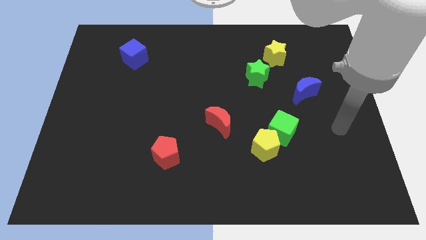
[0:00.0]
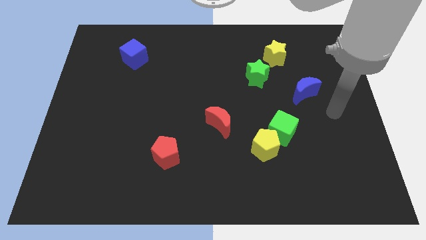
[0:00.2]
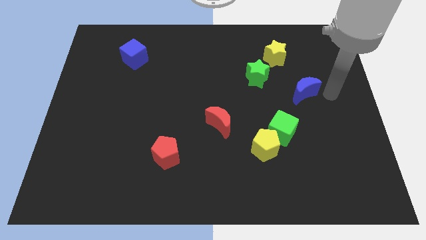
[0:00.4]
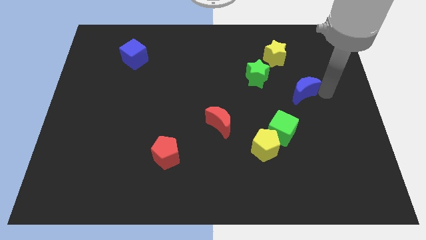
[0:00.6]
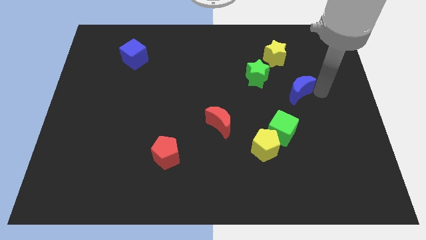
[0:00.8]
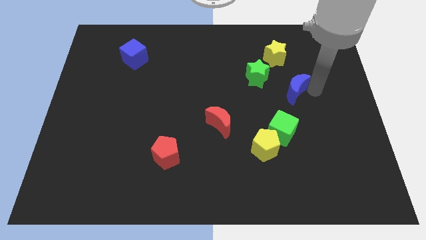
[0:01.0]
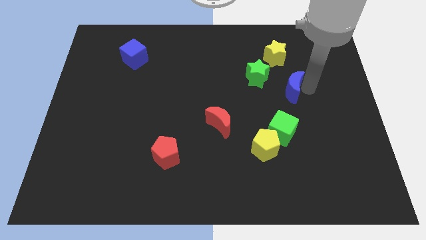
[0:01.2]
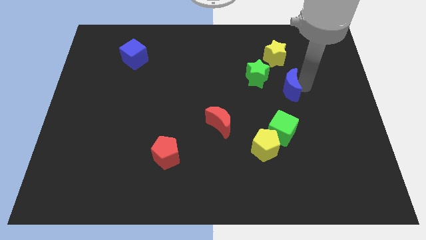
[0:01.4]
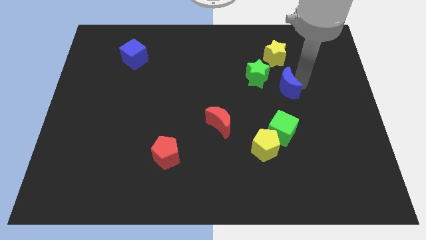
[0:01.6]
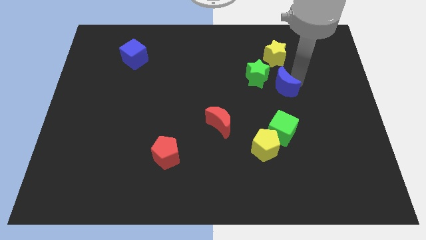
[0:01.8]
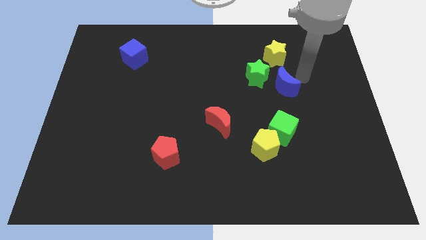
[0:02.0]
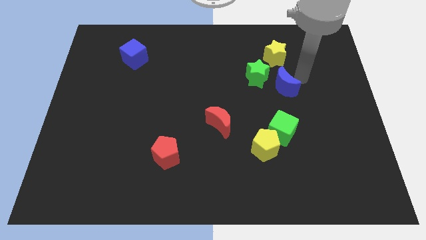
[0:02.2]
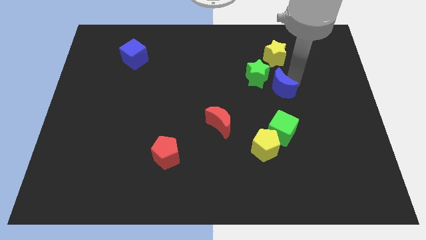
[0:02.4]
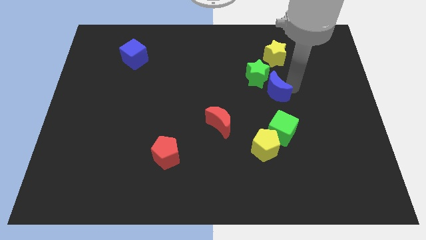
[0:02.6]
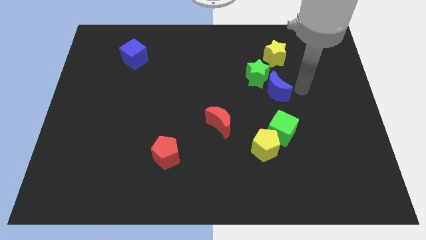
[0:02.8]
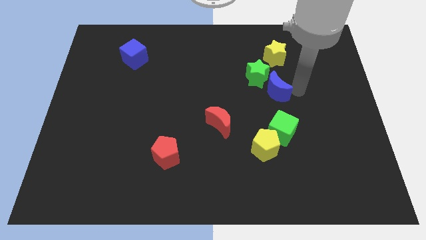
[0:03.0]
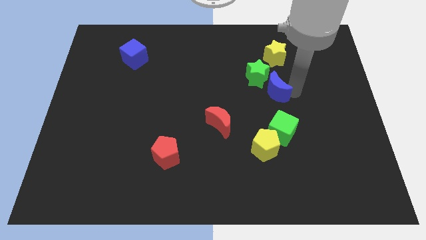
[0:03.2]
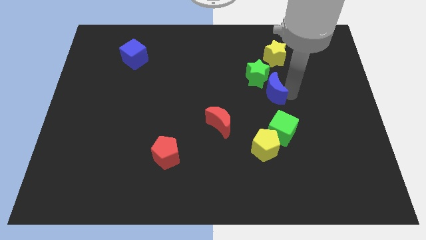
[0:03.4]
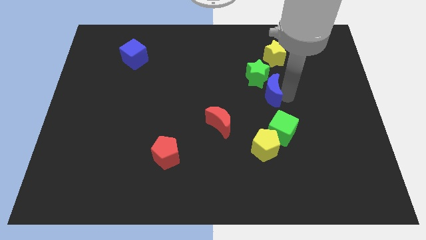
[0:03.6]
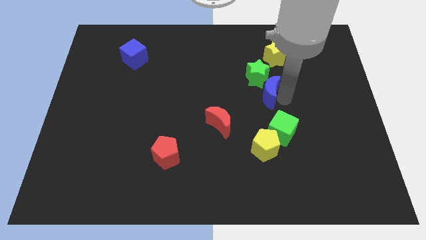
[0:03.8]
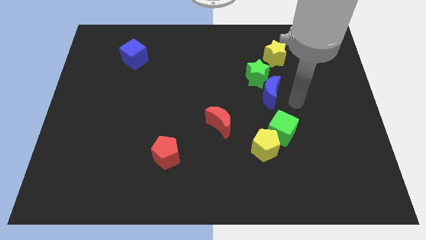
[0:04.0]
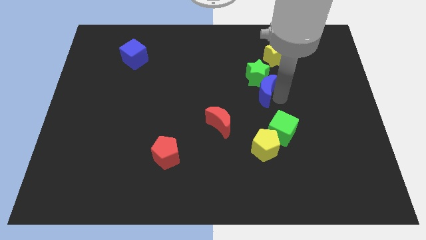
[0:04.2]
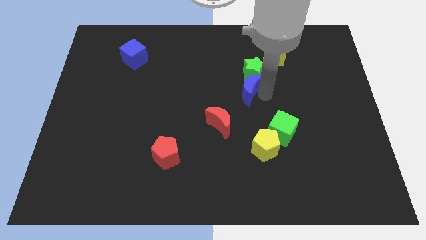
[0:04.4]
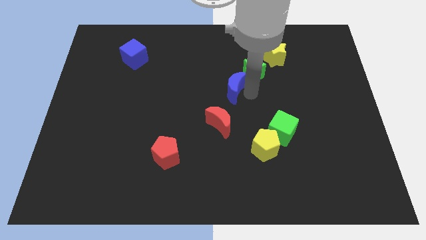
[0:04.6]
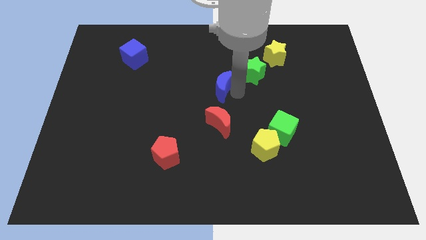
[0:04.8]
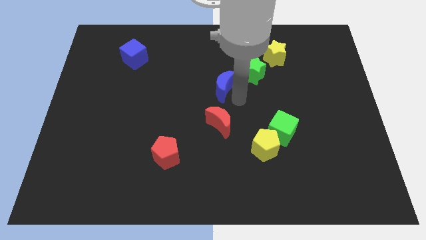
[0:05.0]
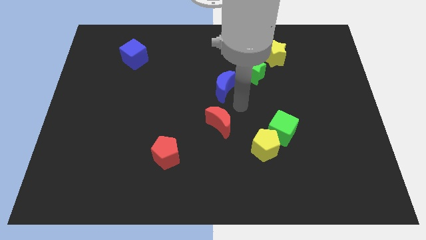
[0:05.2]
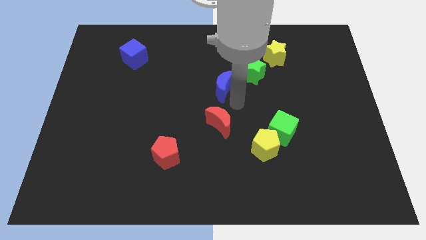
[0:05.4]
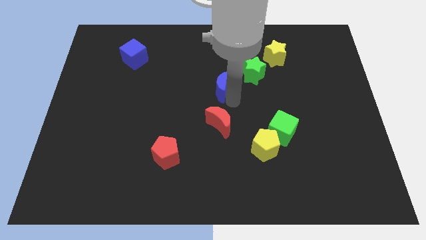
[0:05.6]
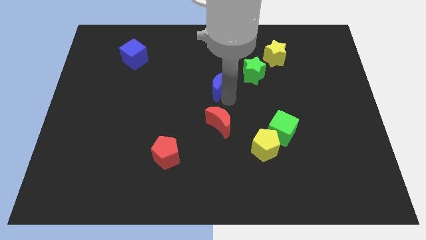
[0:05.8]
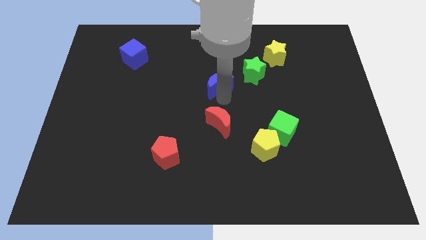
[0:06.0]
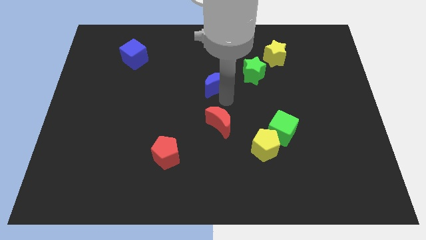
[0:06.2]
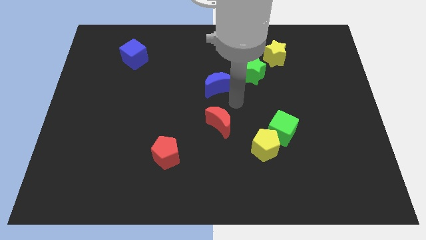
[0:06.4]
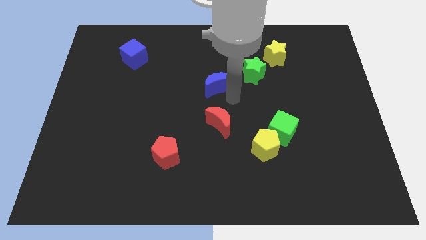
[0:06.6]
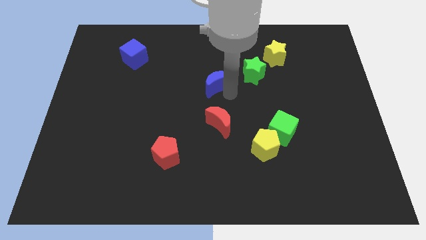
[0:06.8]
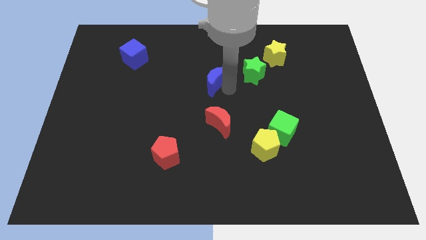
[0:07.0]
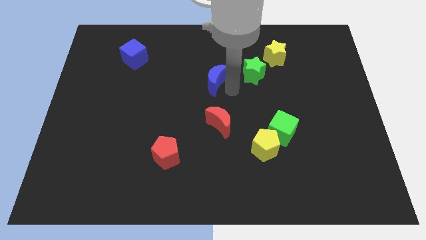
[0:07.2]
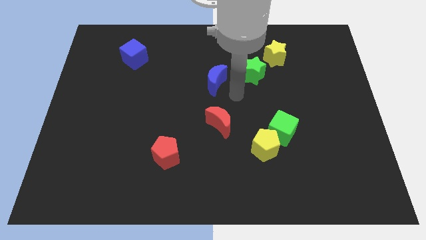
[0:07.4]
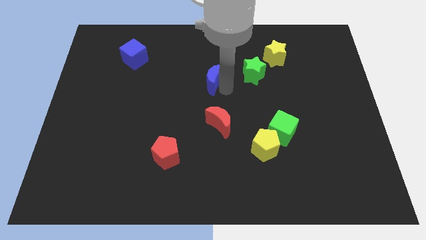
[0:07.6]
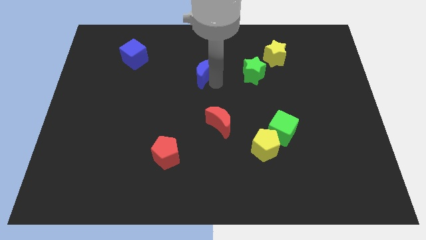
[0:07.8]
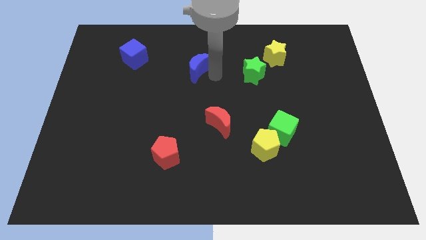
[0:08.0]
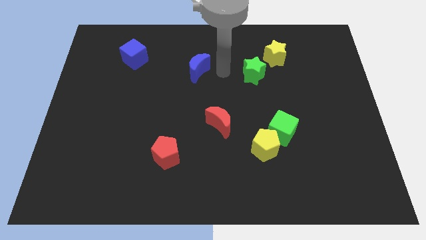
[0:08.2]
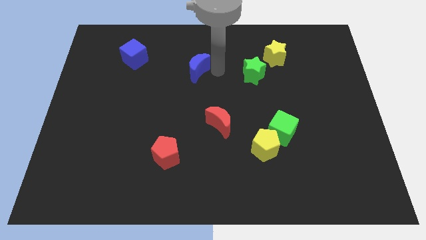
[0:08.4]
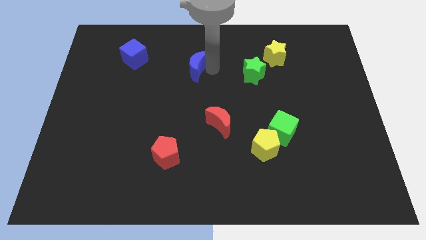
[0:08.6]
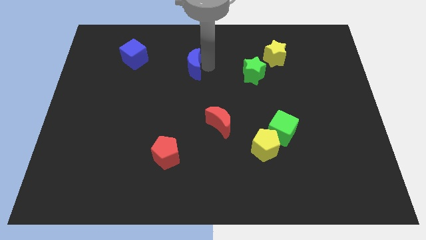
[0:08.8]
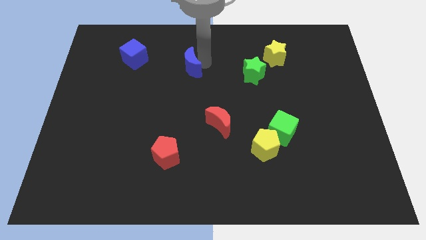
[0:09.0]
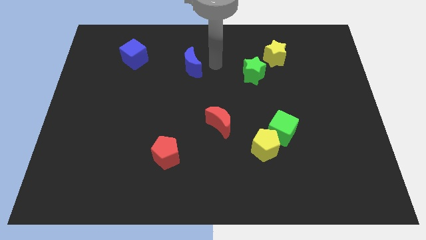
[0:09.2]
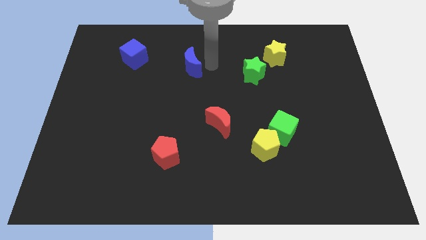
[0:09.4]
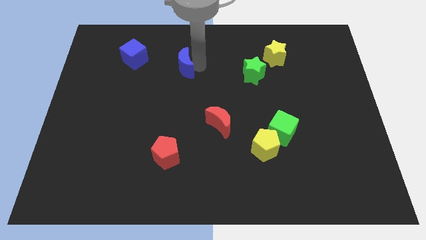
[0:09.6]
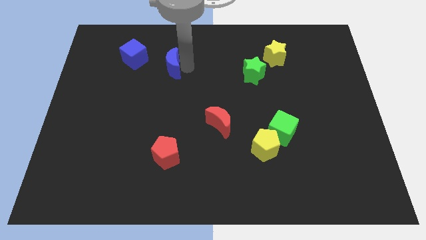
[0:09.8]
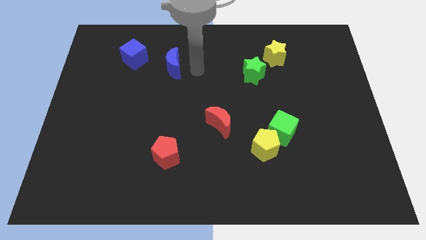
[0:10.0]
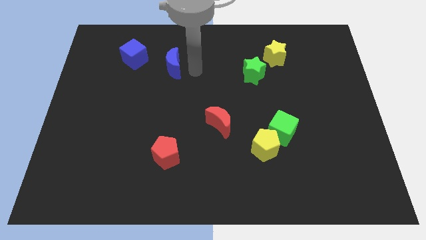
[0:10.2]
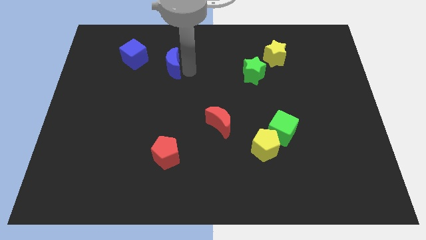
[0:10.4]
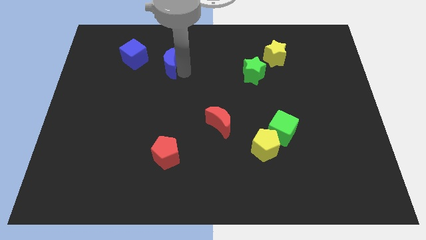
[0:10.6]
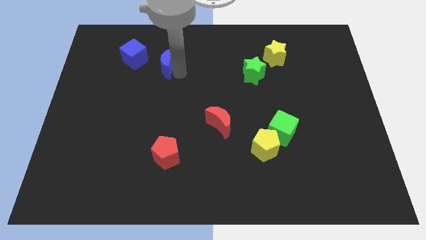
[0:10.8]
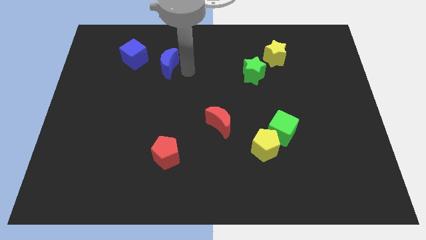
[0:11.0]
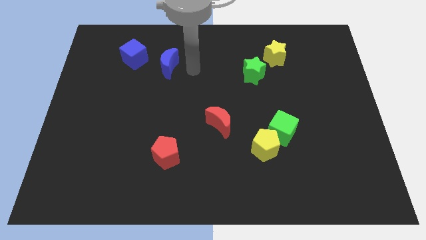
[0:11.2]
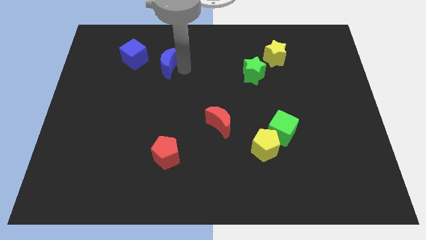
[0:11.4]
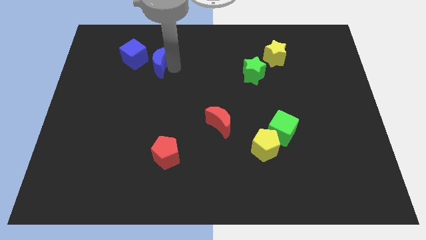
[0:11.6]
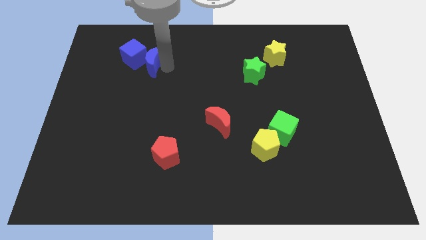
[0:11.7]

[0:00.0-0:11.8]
put the blue moon next to the blue cube

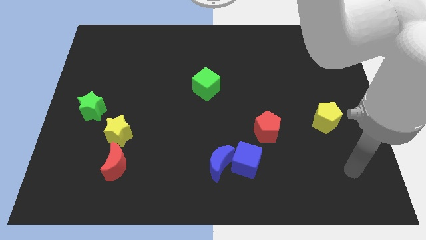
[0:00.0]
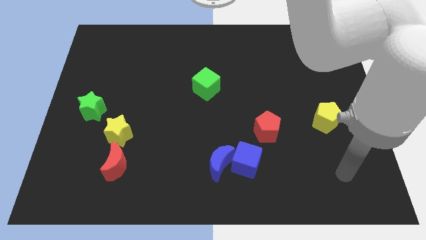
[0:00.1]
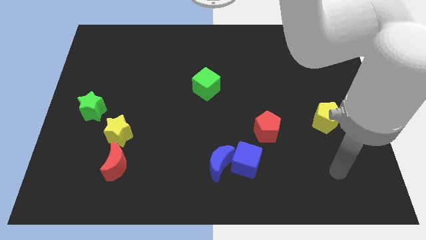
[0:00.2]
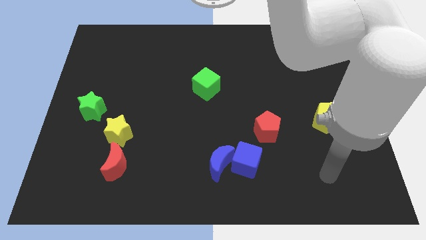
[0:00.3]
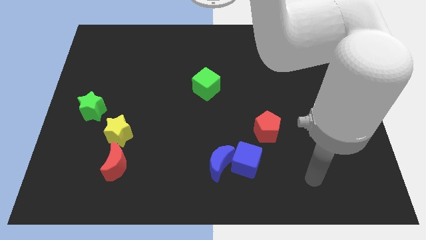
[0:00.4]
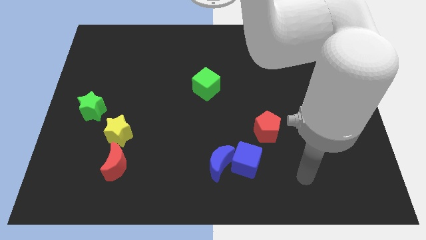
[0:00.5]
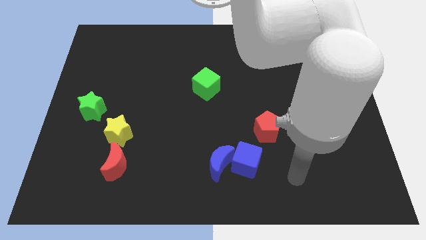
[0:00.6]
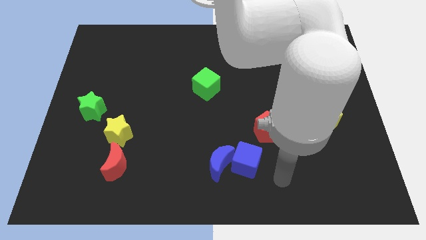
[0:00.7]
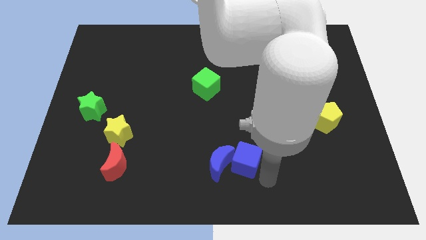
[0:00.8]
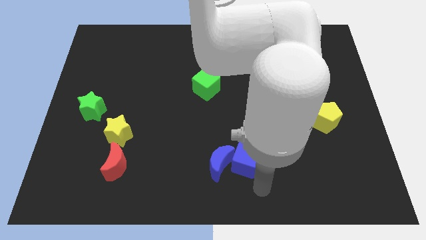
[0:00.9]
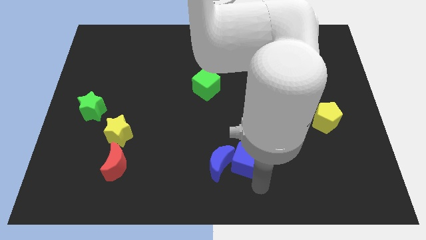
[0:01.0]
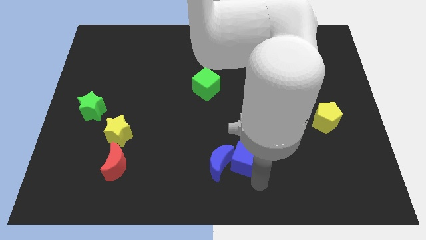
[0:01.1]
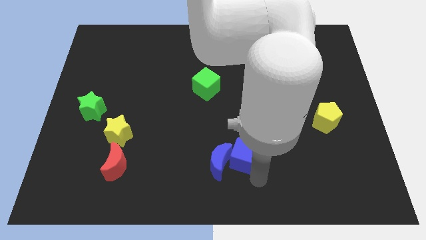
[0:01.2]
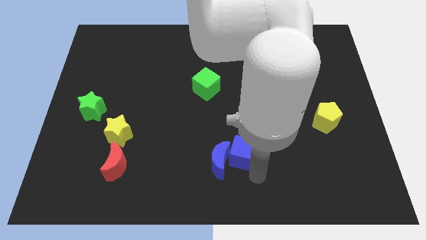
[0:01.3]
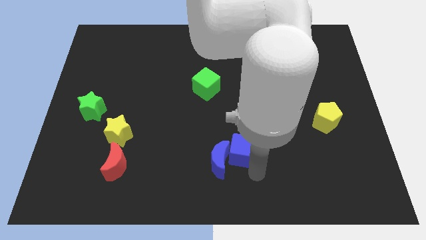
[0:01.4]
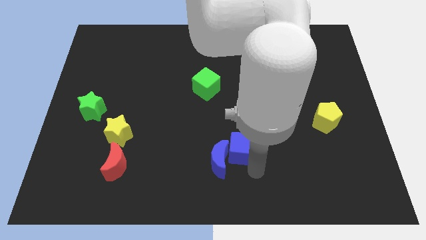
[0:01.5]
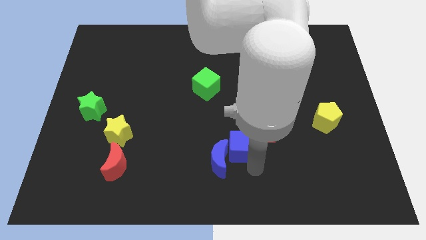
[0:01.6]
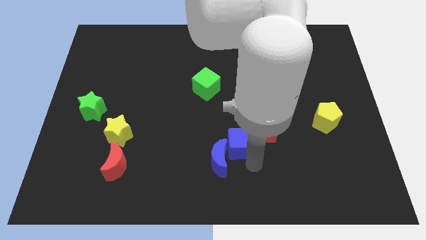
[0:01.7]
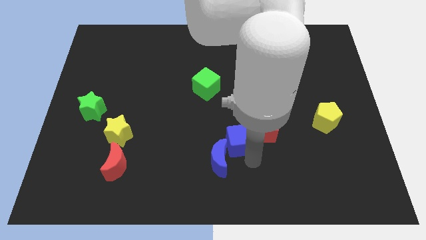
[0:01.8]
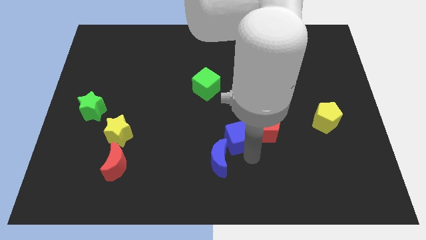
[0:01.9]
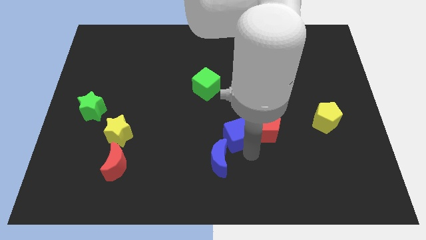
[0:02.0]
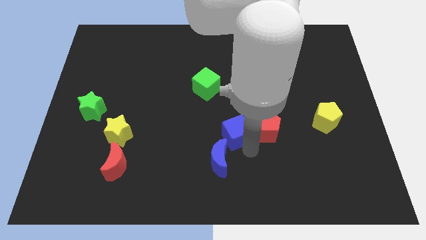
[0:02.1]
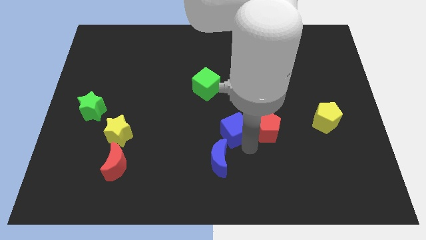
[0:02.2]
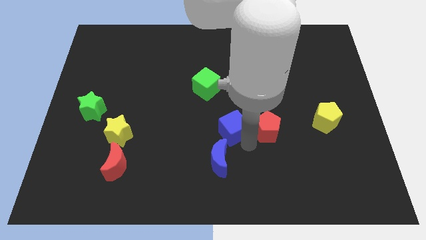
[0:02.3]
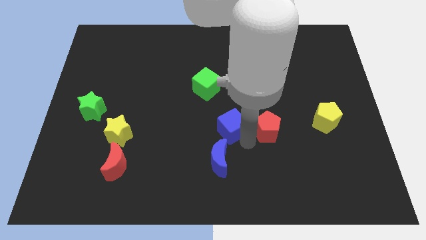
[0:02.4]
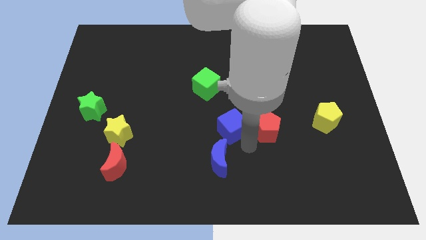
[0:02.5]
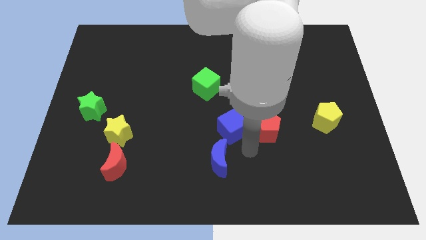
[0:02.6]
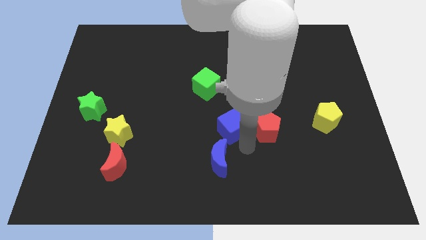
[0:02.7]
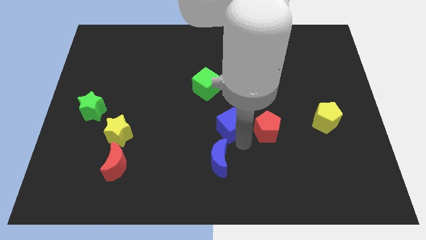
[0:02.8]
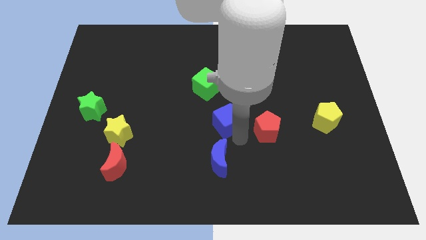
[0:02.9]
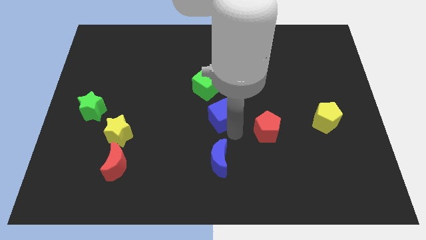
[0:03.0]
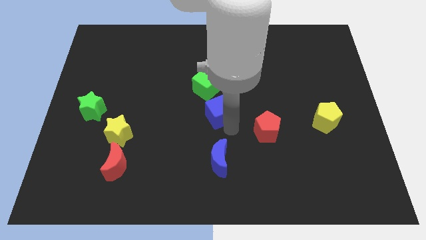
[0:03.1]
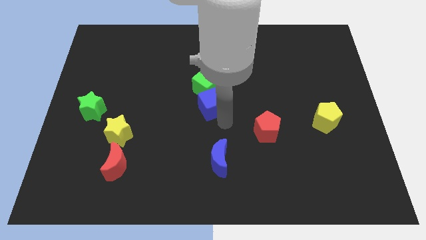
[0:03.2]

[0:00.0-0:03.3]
slide the blue cube to the green cube
